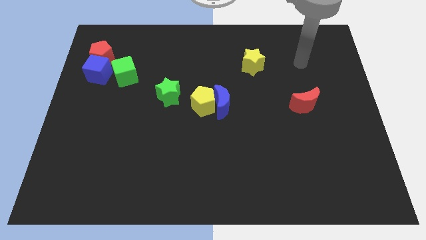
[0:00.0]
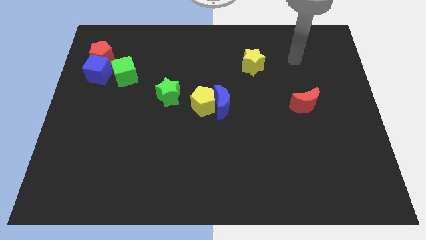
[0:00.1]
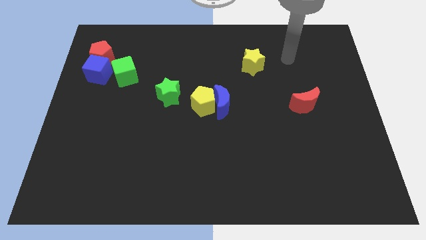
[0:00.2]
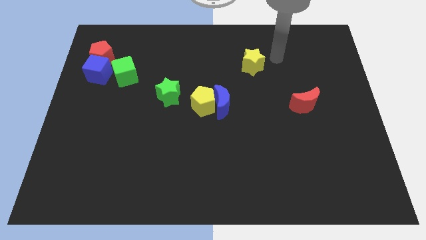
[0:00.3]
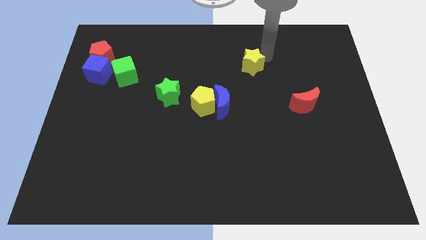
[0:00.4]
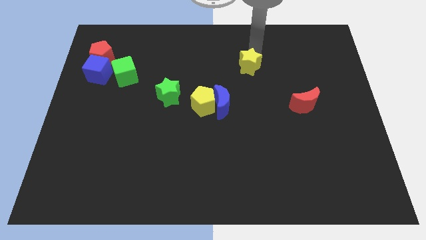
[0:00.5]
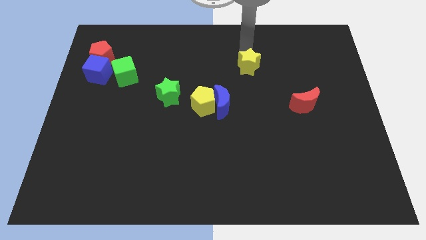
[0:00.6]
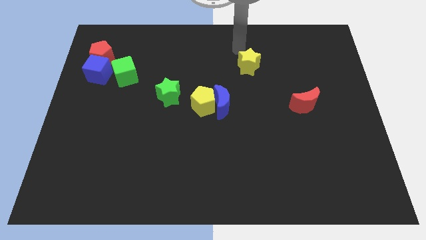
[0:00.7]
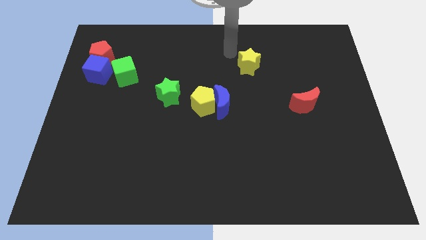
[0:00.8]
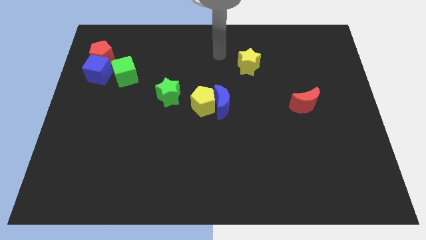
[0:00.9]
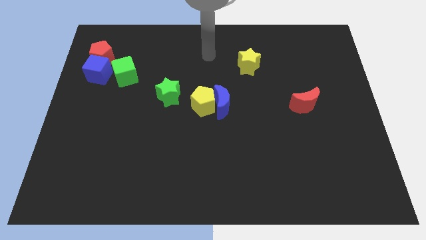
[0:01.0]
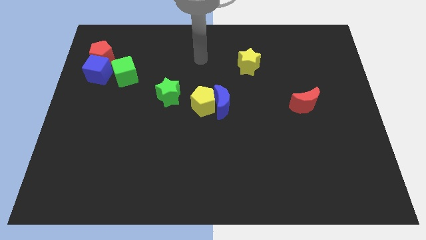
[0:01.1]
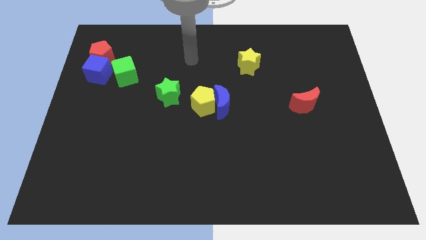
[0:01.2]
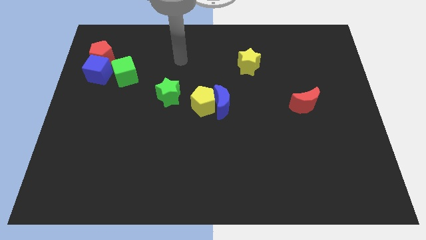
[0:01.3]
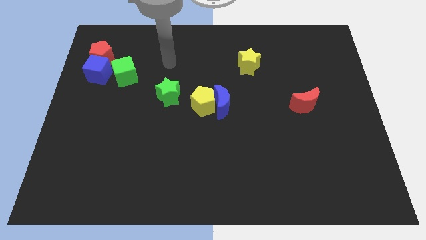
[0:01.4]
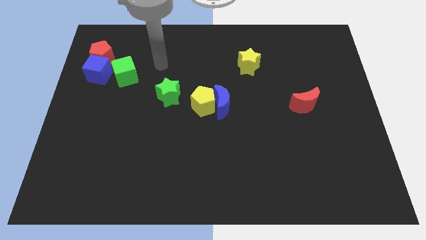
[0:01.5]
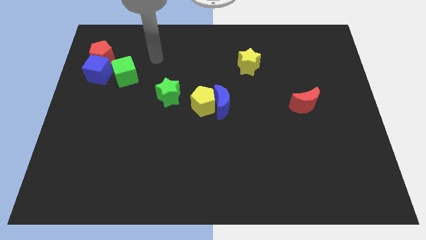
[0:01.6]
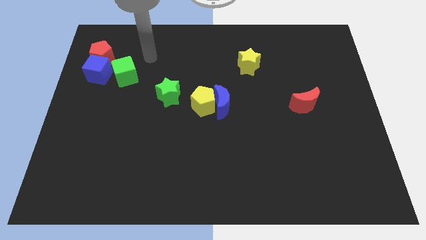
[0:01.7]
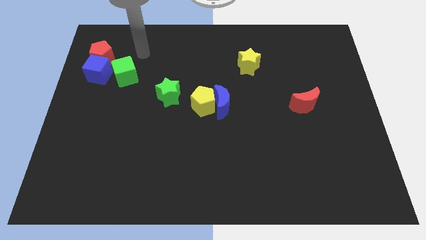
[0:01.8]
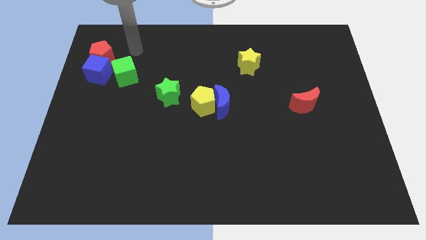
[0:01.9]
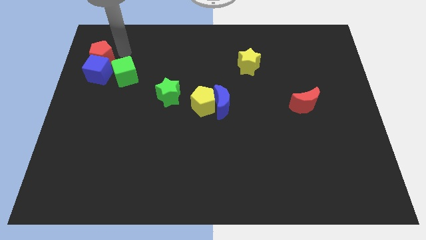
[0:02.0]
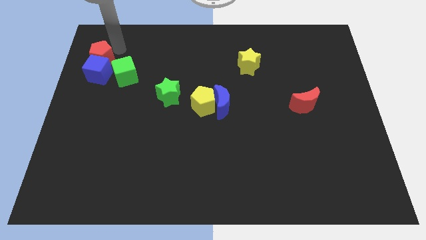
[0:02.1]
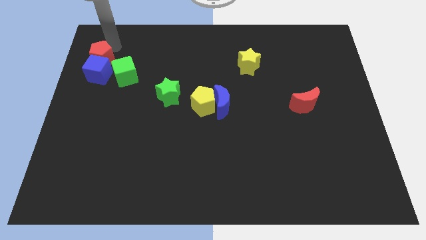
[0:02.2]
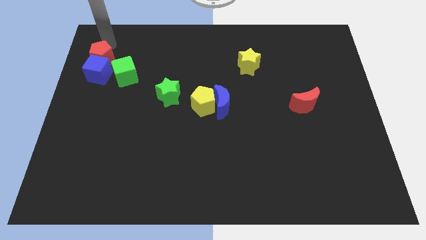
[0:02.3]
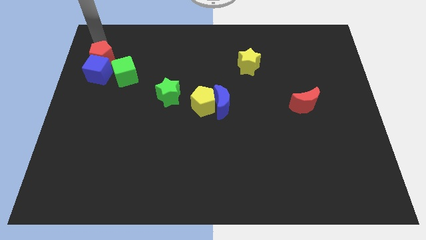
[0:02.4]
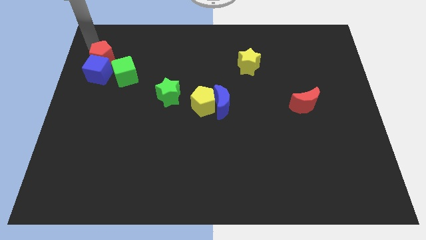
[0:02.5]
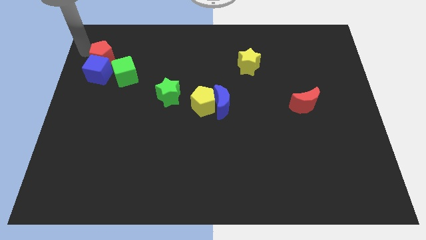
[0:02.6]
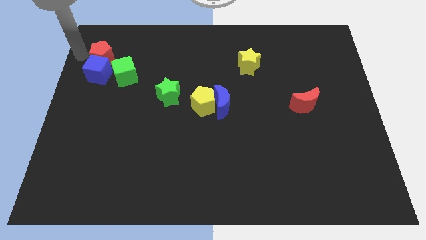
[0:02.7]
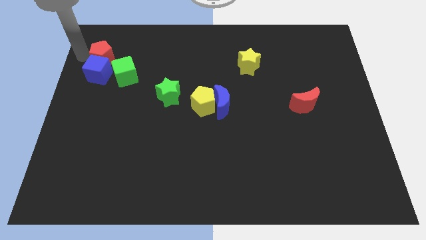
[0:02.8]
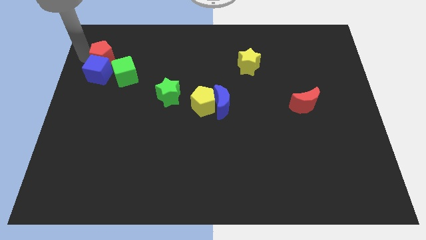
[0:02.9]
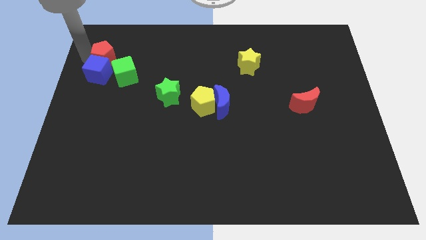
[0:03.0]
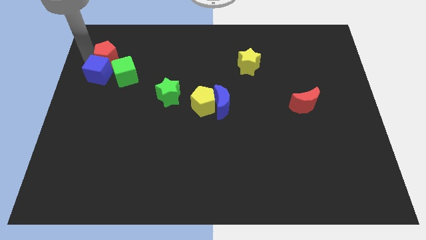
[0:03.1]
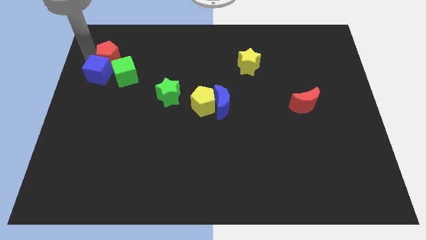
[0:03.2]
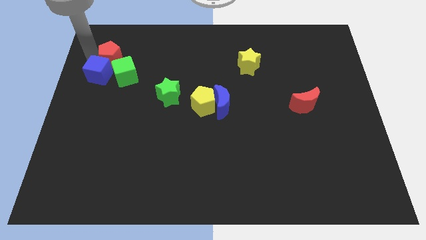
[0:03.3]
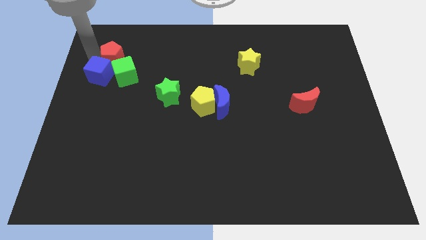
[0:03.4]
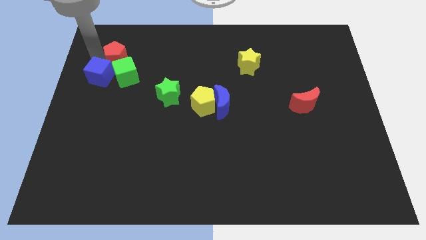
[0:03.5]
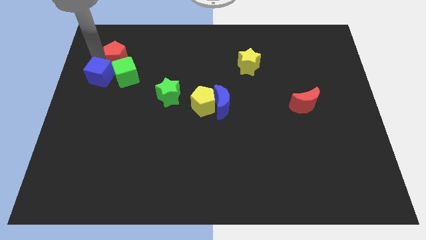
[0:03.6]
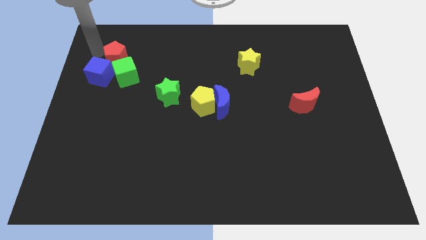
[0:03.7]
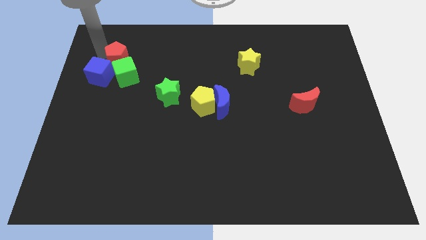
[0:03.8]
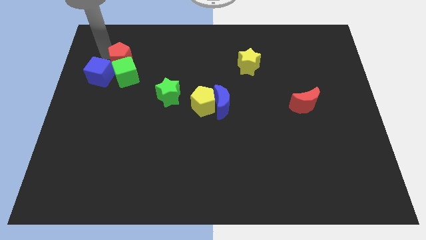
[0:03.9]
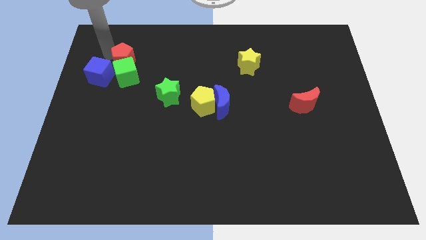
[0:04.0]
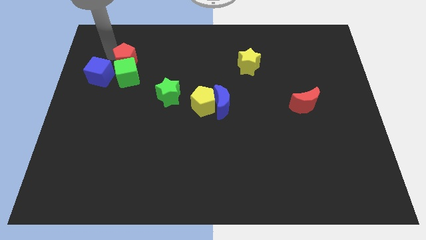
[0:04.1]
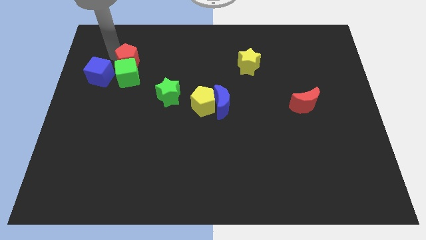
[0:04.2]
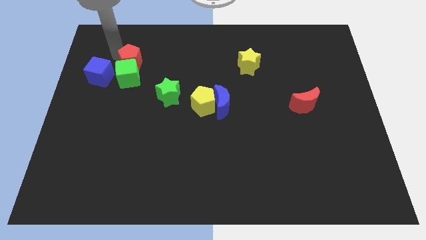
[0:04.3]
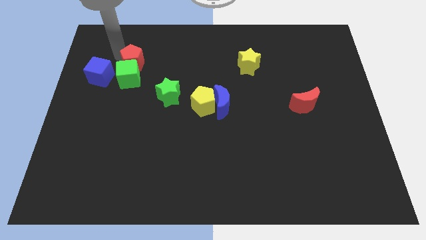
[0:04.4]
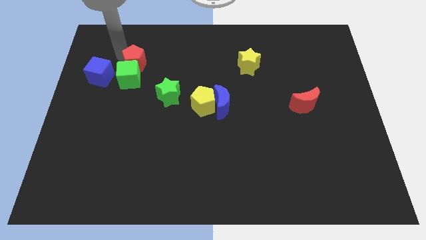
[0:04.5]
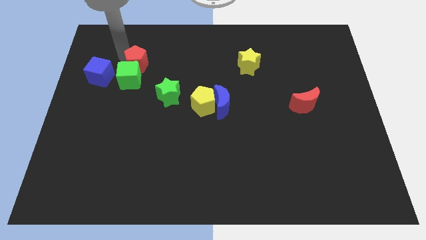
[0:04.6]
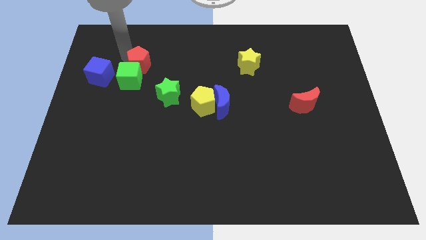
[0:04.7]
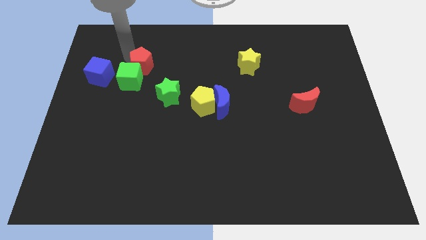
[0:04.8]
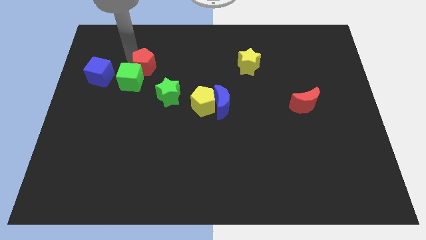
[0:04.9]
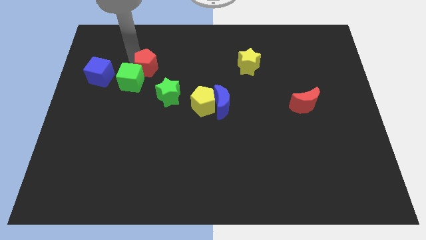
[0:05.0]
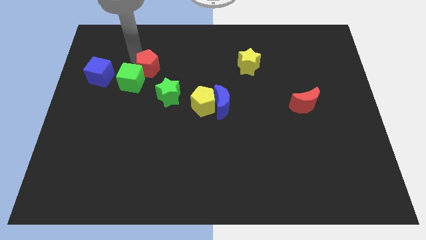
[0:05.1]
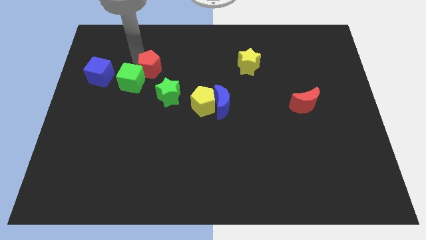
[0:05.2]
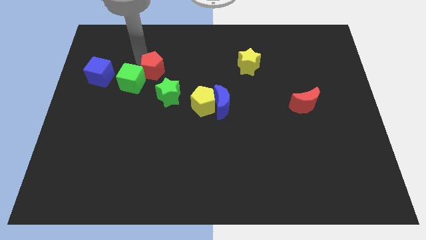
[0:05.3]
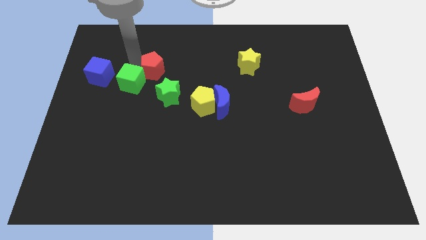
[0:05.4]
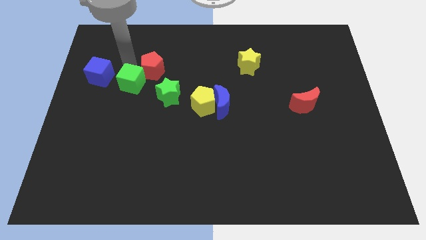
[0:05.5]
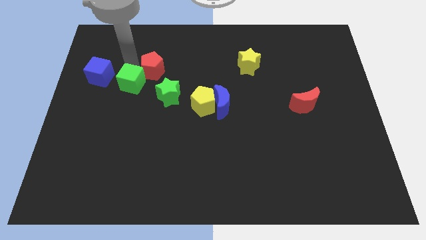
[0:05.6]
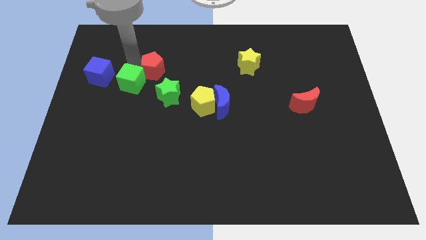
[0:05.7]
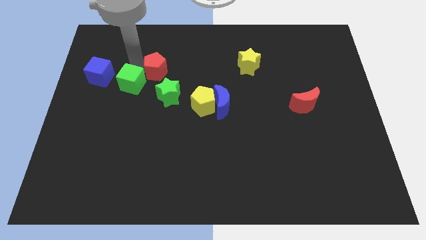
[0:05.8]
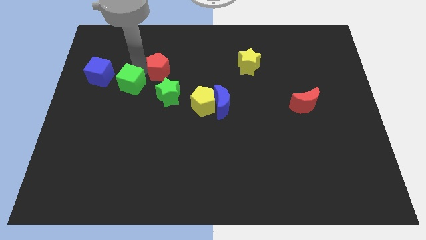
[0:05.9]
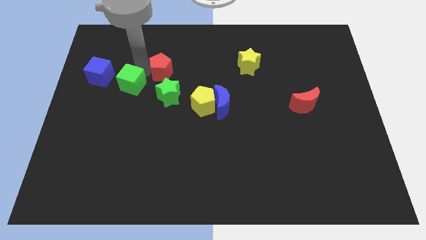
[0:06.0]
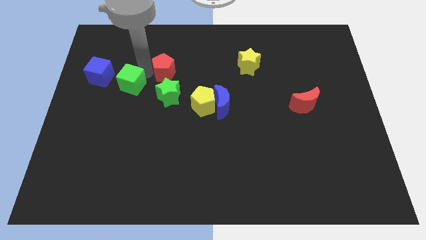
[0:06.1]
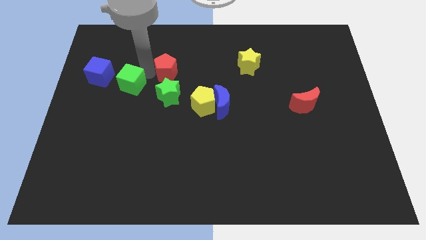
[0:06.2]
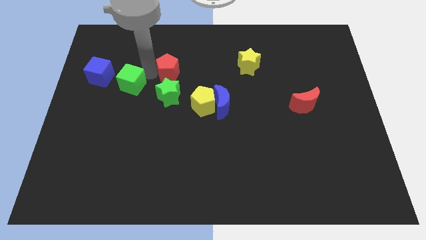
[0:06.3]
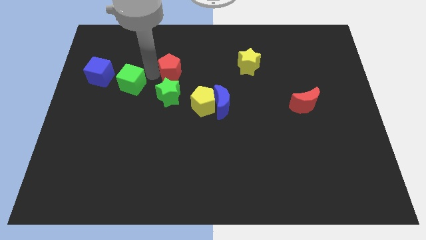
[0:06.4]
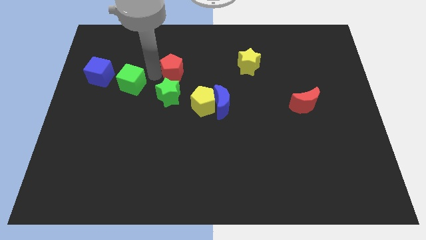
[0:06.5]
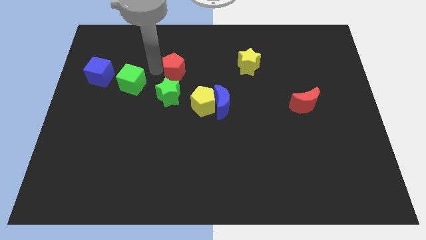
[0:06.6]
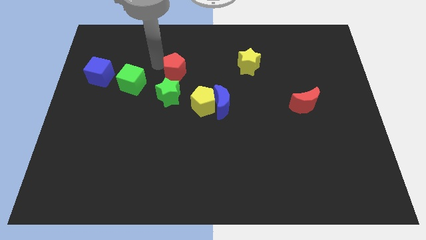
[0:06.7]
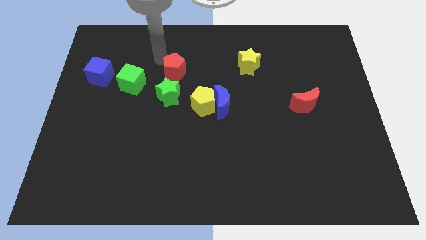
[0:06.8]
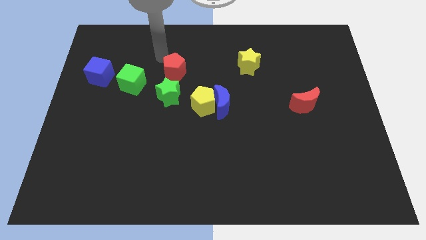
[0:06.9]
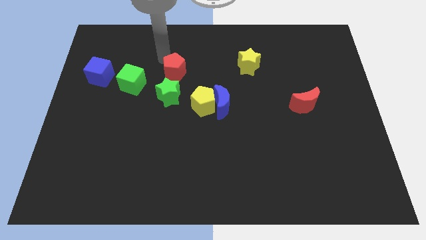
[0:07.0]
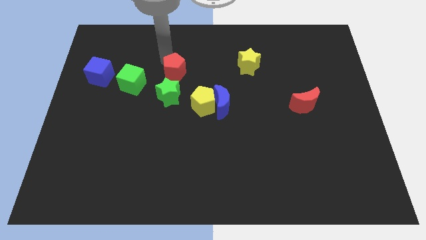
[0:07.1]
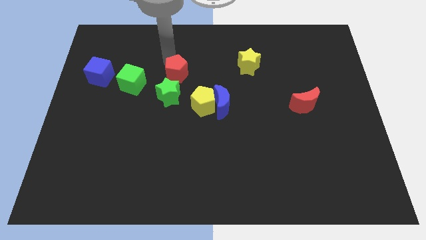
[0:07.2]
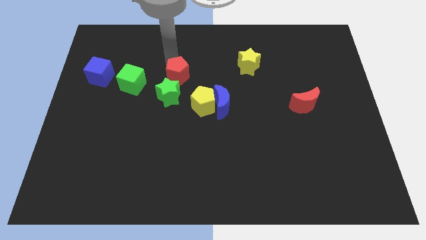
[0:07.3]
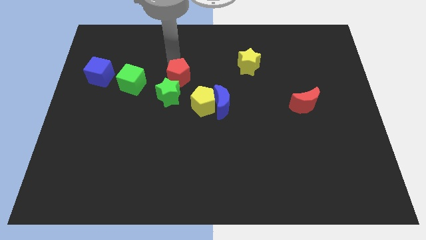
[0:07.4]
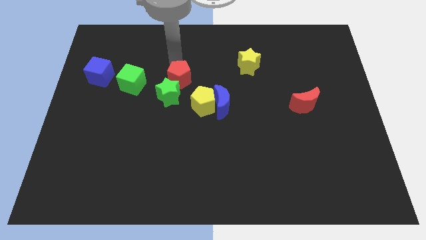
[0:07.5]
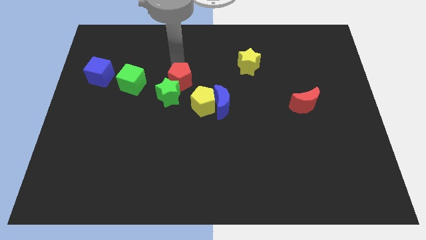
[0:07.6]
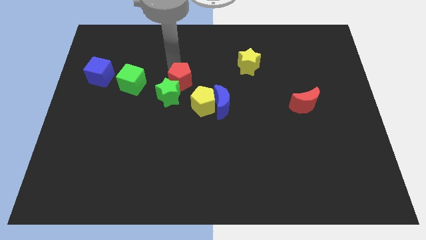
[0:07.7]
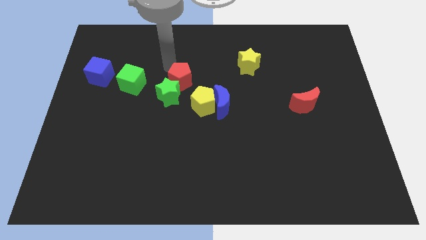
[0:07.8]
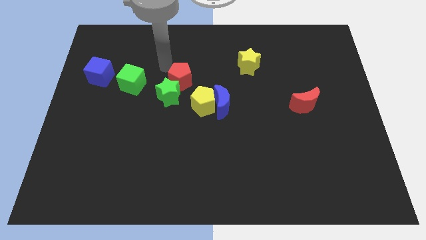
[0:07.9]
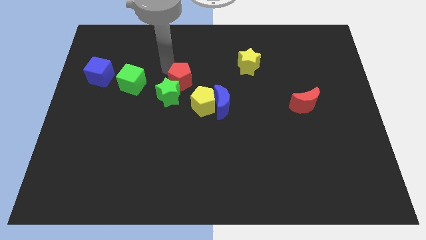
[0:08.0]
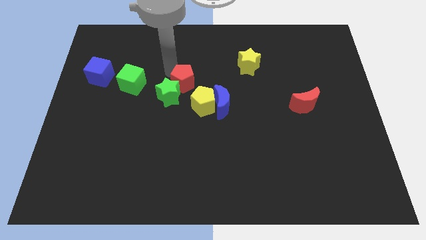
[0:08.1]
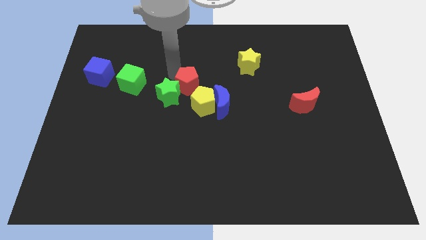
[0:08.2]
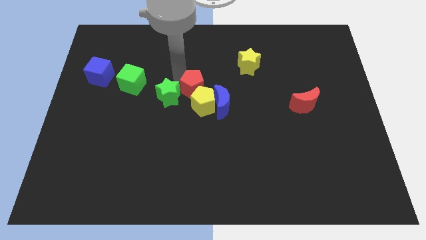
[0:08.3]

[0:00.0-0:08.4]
slide the red pentagon towards the yellow pentagon
